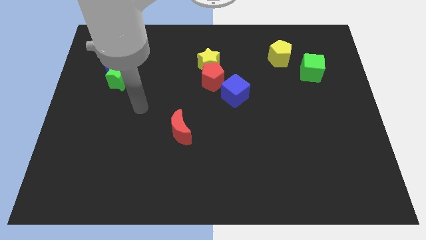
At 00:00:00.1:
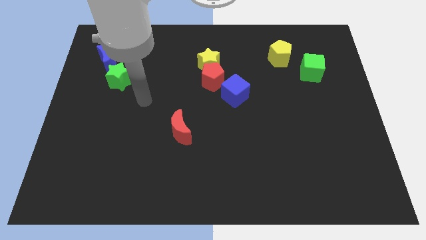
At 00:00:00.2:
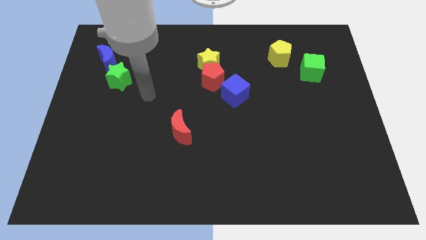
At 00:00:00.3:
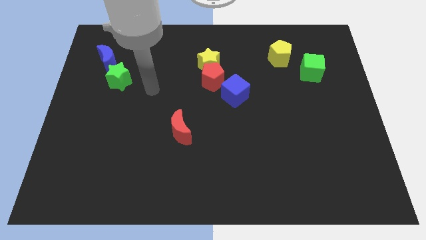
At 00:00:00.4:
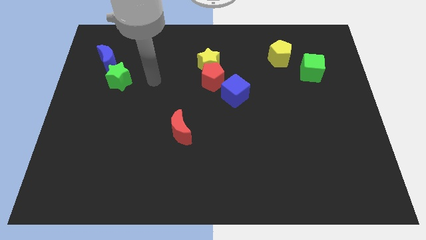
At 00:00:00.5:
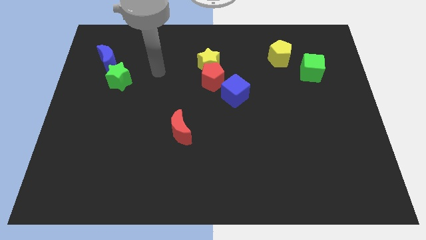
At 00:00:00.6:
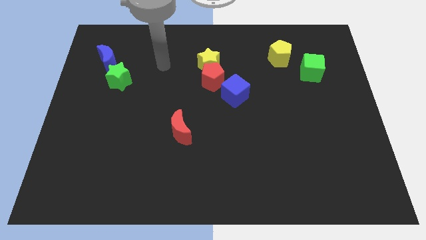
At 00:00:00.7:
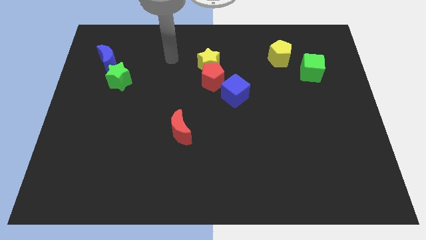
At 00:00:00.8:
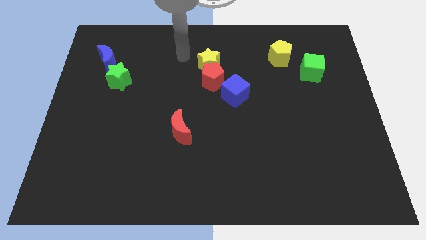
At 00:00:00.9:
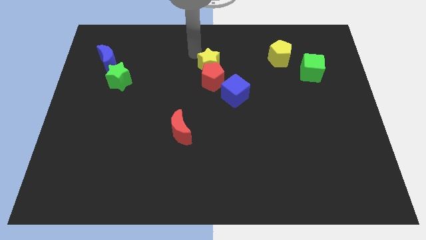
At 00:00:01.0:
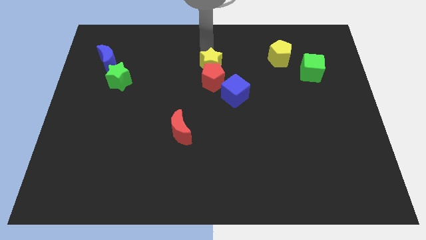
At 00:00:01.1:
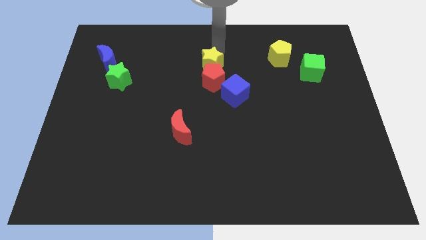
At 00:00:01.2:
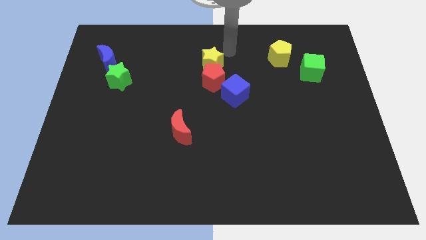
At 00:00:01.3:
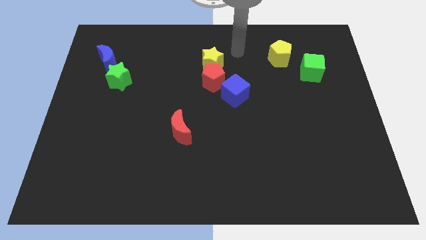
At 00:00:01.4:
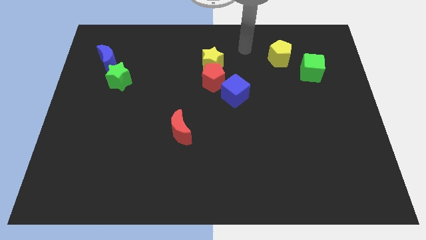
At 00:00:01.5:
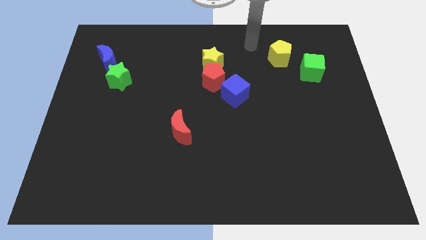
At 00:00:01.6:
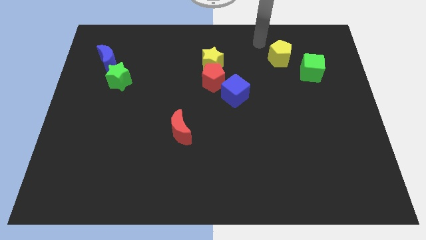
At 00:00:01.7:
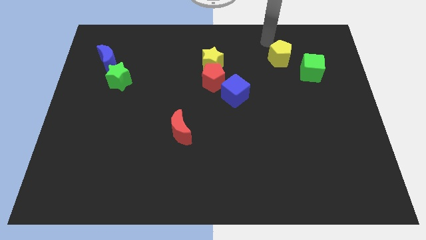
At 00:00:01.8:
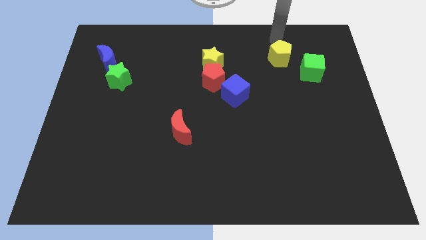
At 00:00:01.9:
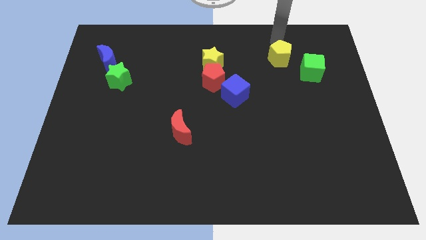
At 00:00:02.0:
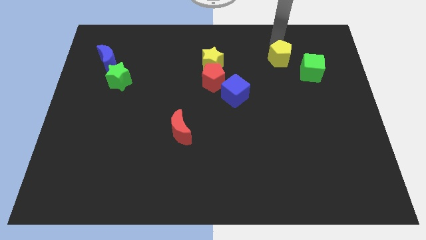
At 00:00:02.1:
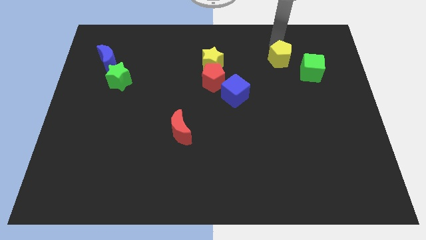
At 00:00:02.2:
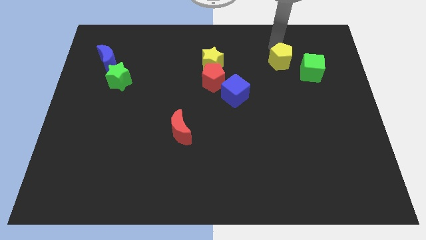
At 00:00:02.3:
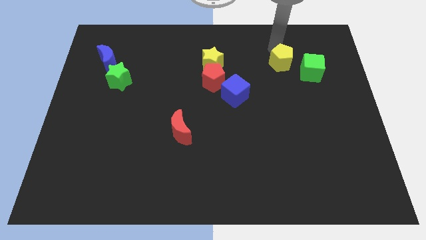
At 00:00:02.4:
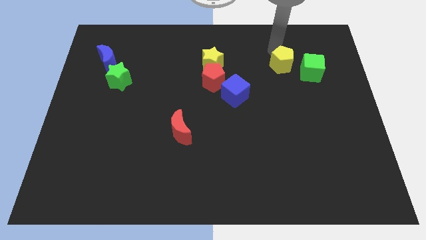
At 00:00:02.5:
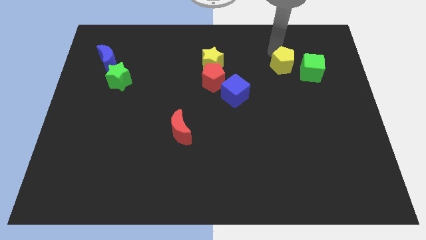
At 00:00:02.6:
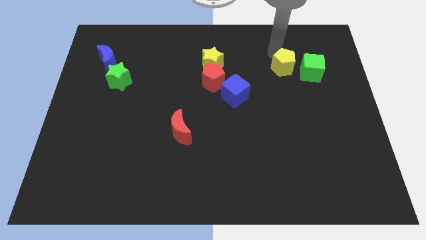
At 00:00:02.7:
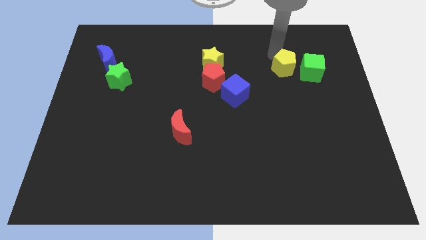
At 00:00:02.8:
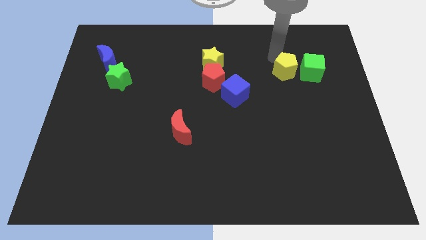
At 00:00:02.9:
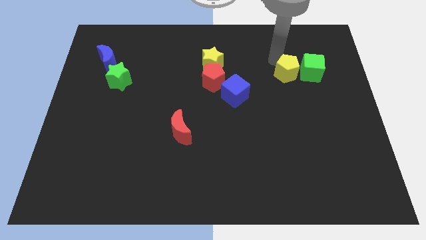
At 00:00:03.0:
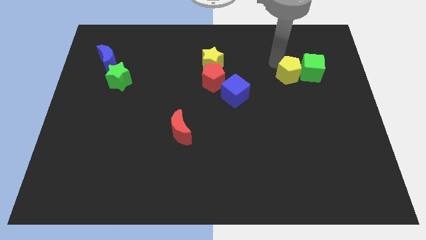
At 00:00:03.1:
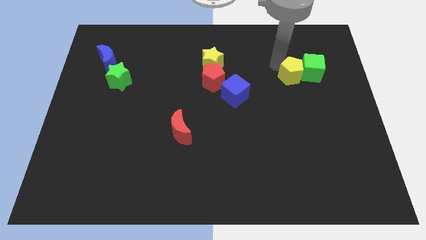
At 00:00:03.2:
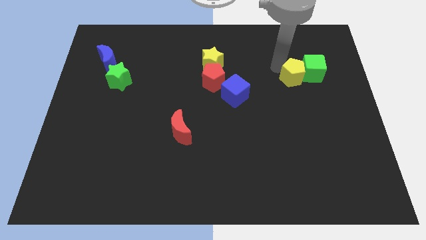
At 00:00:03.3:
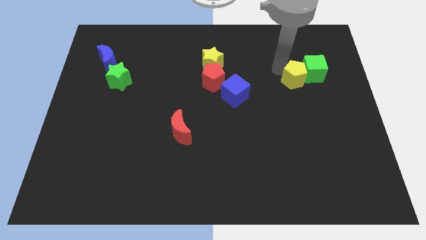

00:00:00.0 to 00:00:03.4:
slightly push the yellow pentagon downwards

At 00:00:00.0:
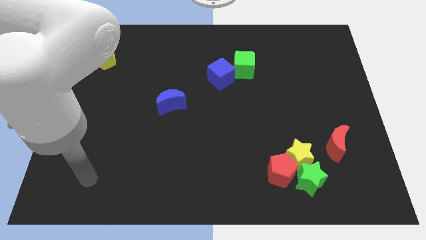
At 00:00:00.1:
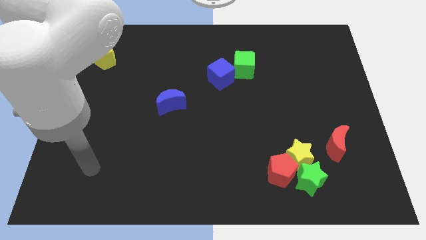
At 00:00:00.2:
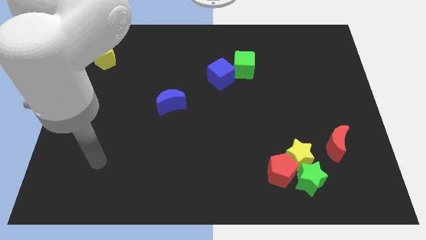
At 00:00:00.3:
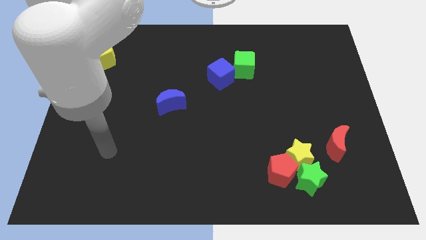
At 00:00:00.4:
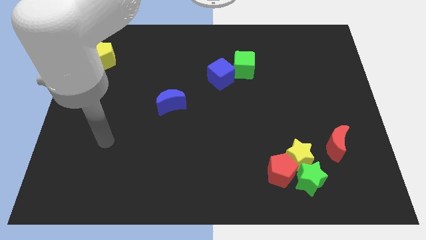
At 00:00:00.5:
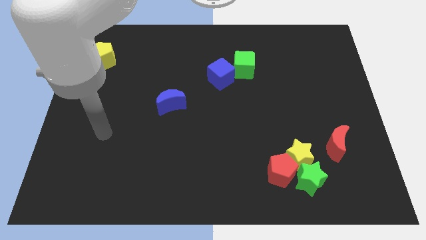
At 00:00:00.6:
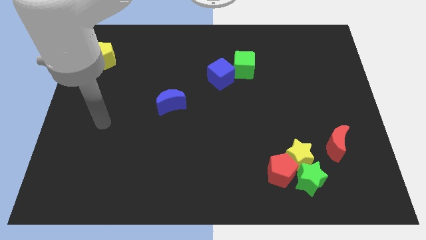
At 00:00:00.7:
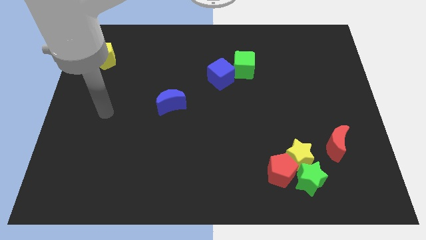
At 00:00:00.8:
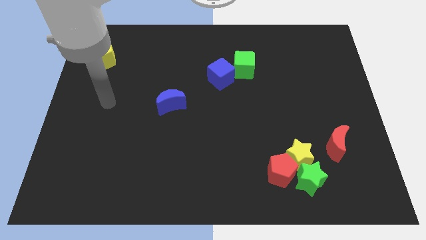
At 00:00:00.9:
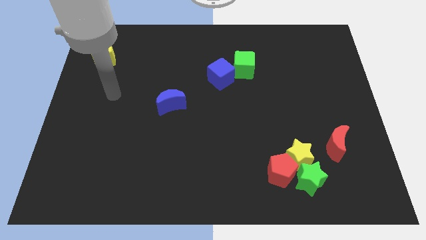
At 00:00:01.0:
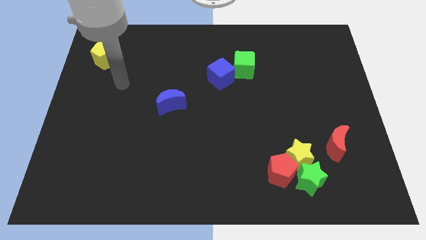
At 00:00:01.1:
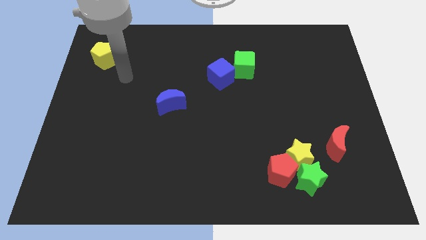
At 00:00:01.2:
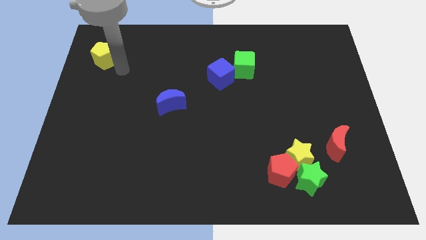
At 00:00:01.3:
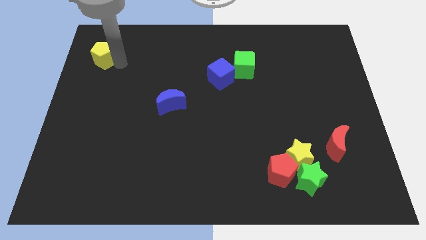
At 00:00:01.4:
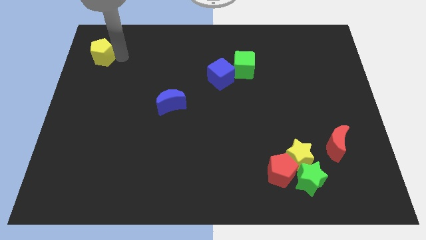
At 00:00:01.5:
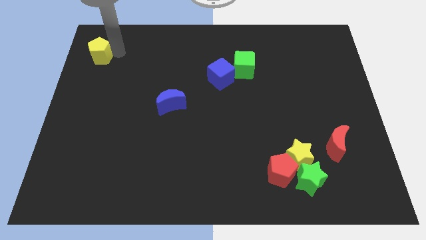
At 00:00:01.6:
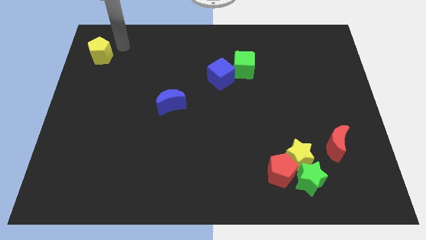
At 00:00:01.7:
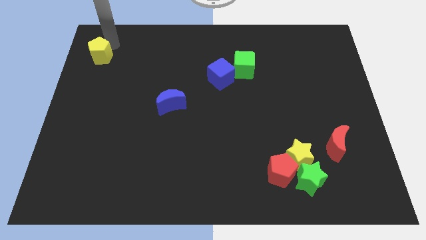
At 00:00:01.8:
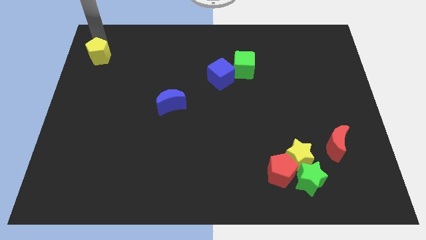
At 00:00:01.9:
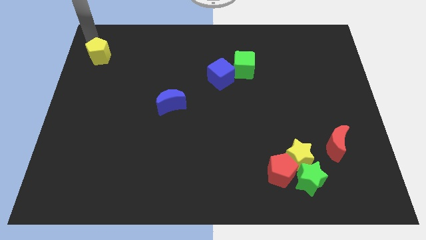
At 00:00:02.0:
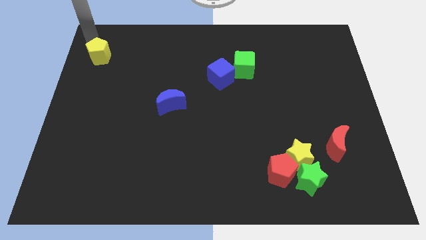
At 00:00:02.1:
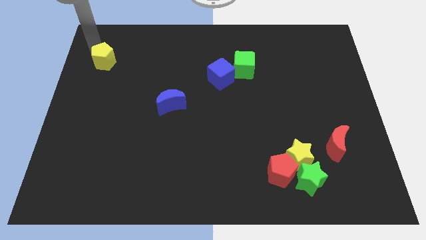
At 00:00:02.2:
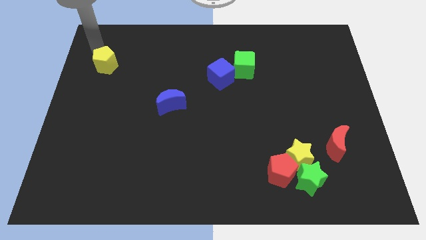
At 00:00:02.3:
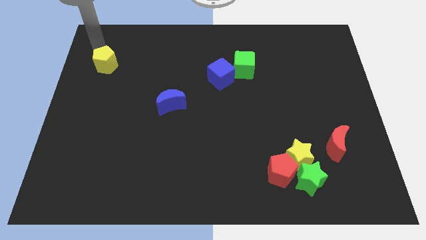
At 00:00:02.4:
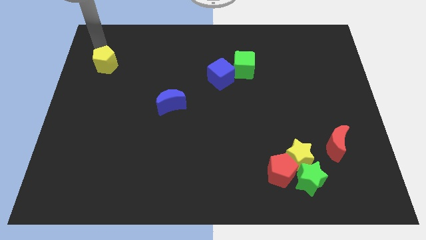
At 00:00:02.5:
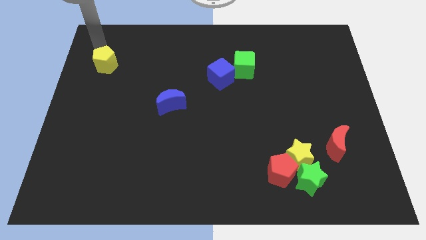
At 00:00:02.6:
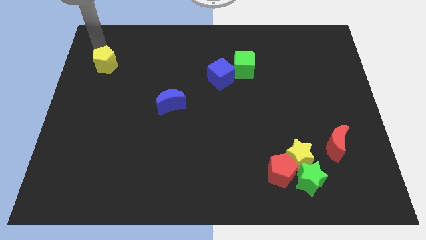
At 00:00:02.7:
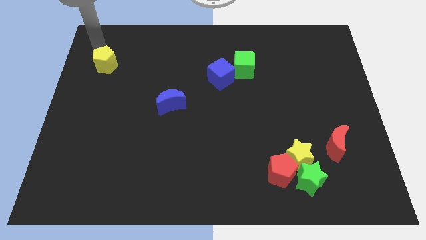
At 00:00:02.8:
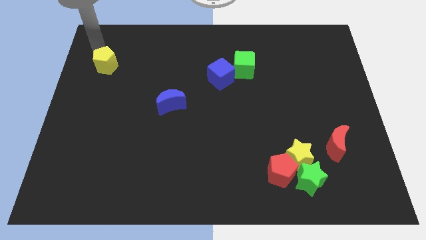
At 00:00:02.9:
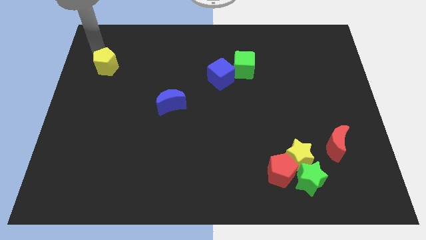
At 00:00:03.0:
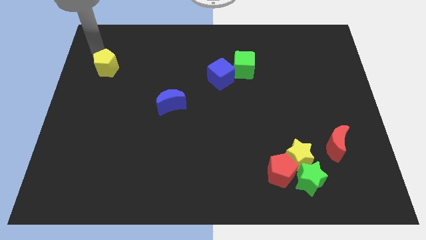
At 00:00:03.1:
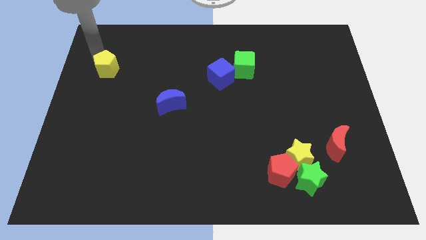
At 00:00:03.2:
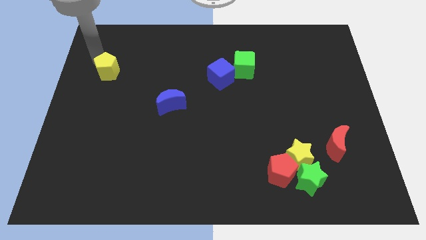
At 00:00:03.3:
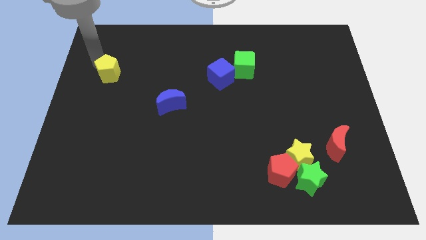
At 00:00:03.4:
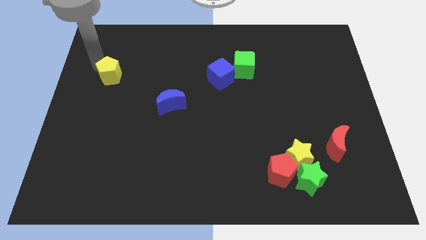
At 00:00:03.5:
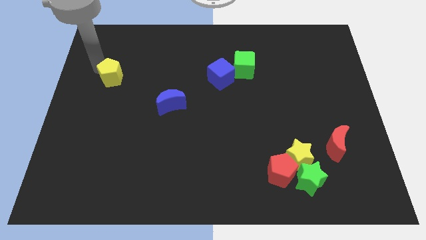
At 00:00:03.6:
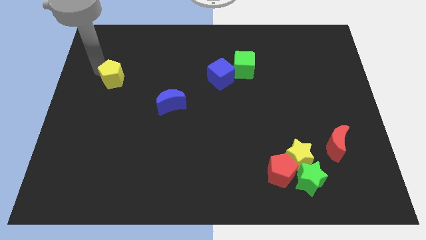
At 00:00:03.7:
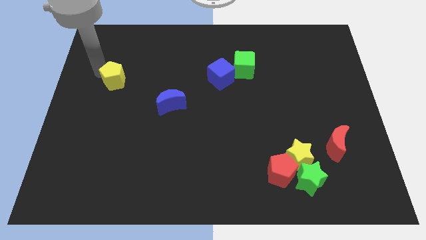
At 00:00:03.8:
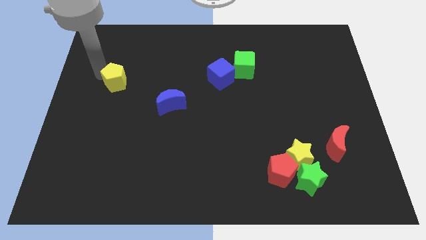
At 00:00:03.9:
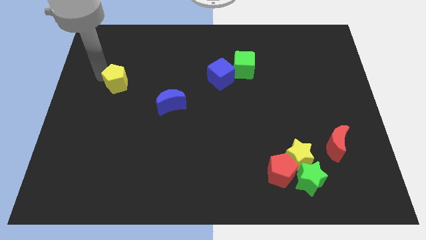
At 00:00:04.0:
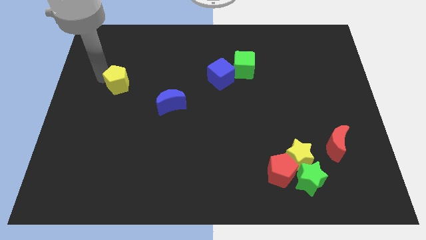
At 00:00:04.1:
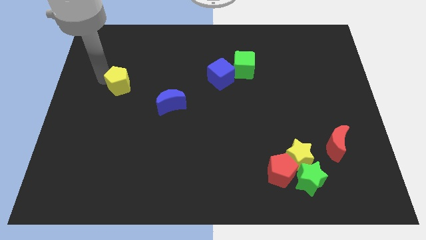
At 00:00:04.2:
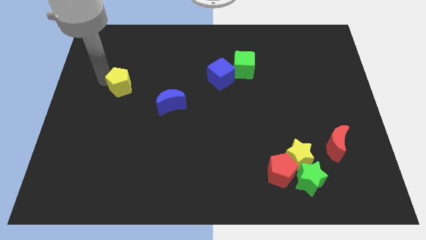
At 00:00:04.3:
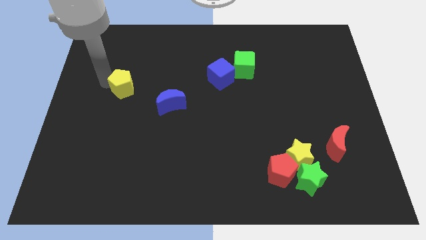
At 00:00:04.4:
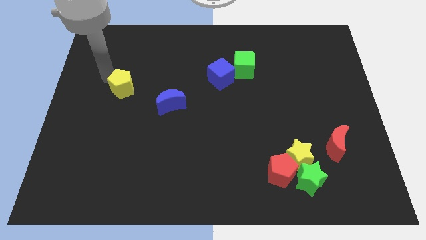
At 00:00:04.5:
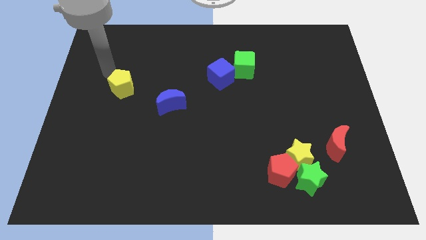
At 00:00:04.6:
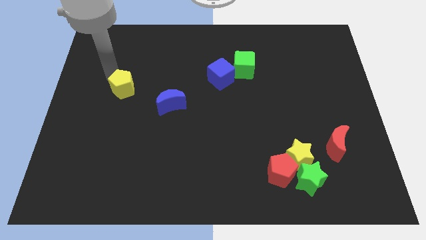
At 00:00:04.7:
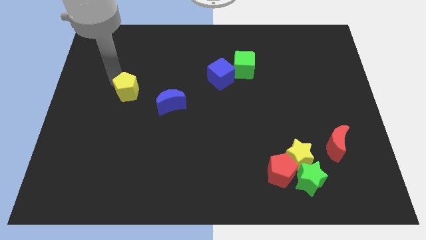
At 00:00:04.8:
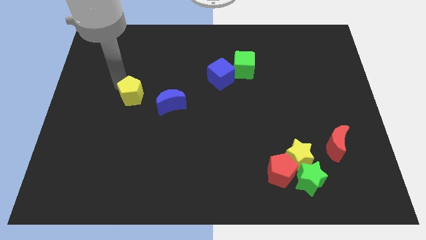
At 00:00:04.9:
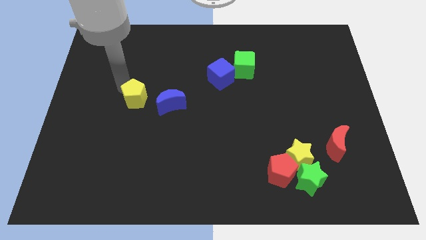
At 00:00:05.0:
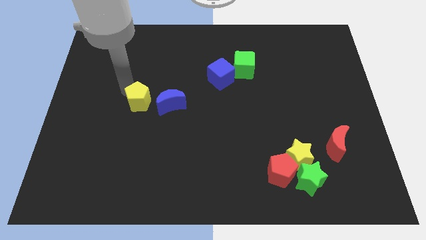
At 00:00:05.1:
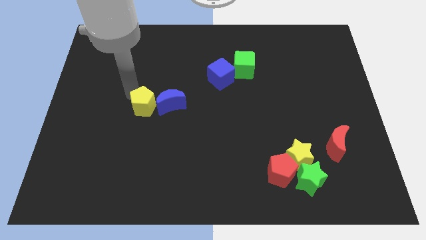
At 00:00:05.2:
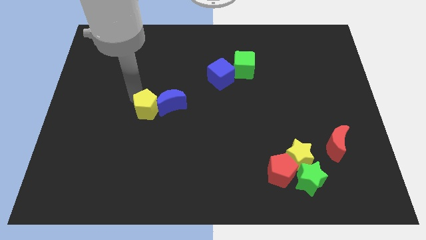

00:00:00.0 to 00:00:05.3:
push the yellow pentagon down and right diagonally
